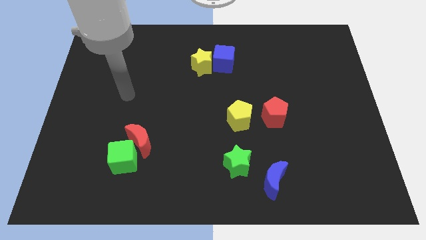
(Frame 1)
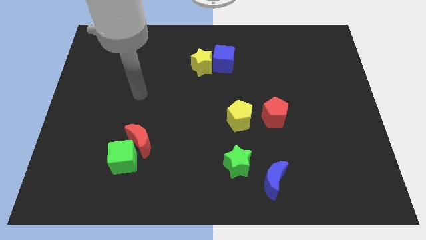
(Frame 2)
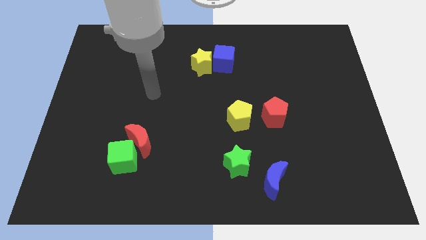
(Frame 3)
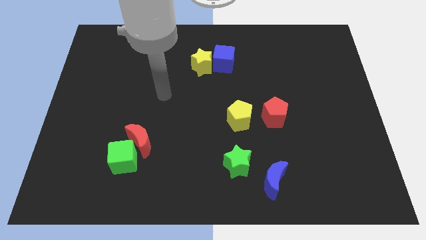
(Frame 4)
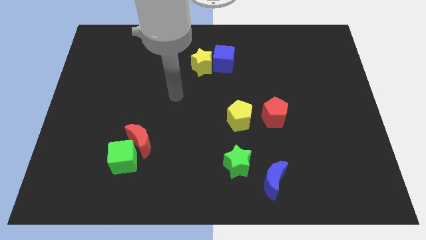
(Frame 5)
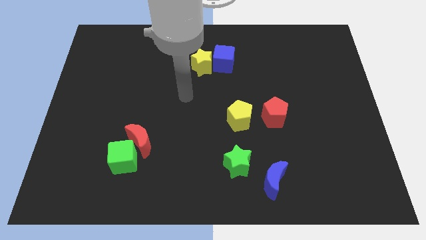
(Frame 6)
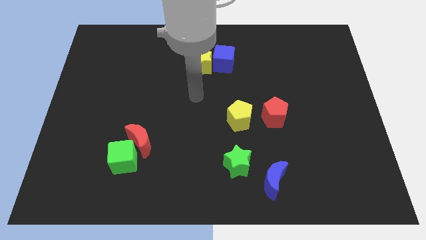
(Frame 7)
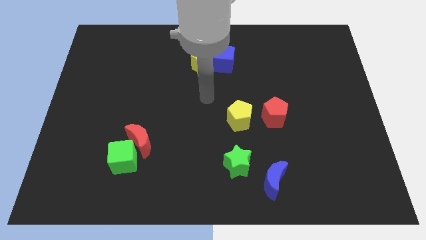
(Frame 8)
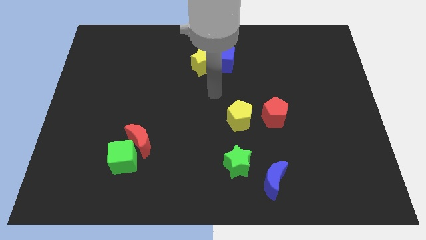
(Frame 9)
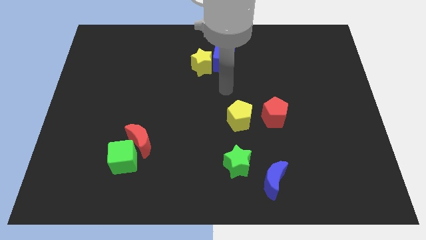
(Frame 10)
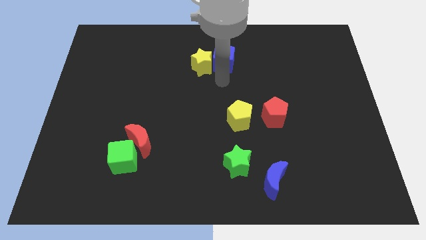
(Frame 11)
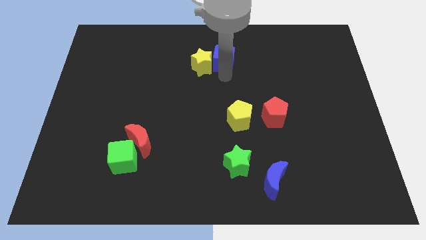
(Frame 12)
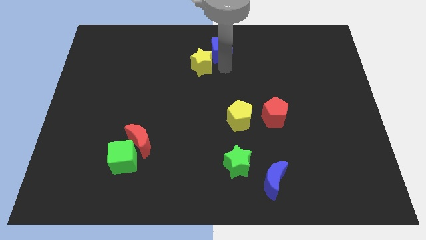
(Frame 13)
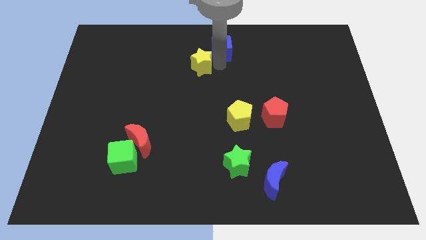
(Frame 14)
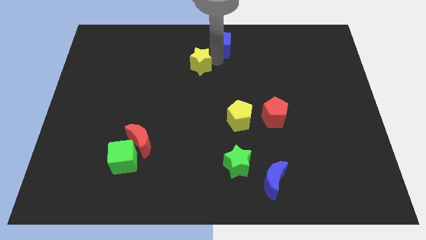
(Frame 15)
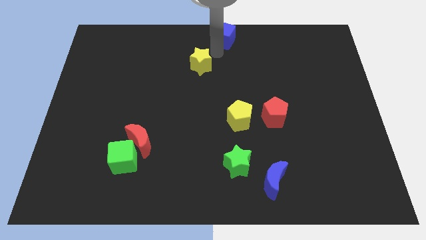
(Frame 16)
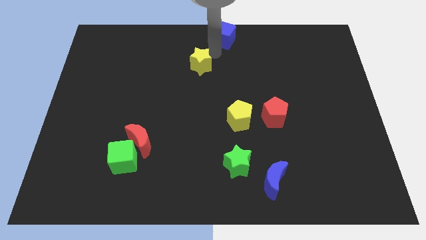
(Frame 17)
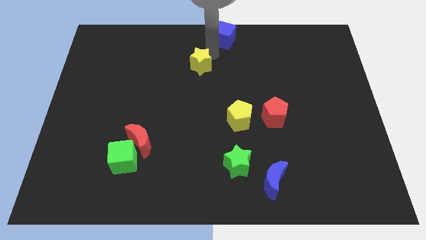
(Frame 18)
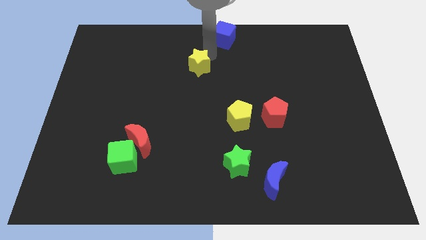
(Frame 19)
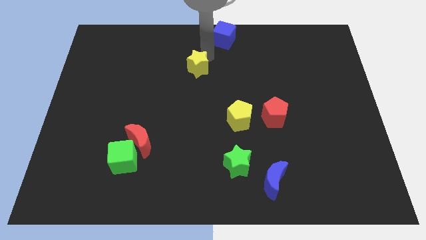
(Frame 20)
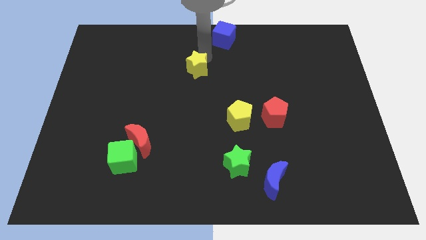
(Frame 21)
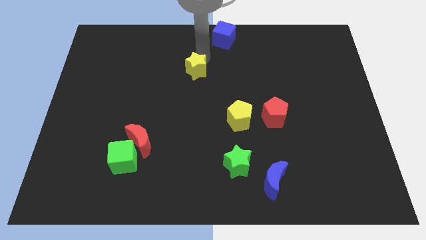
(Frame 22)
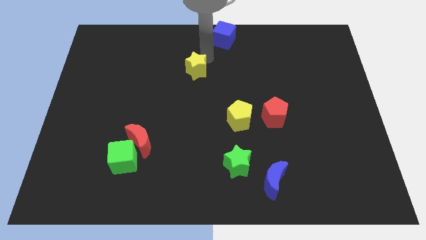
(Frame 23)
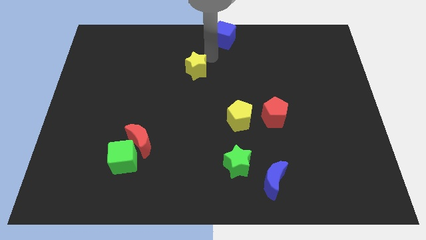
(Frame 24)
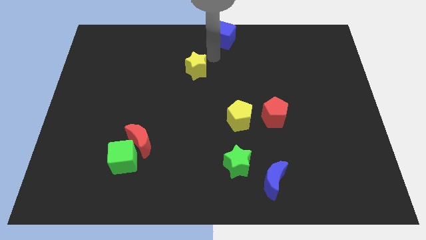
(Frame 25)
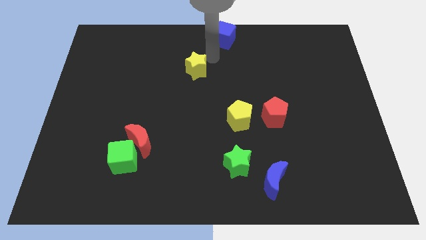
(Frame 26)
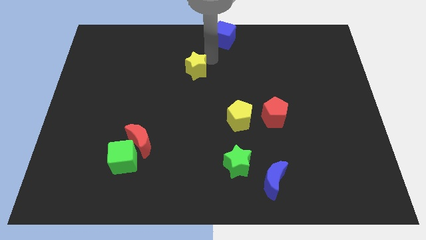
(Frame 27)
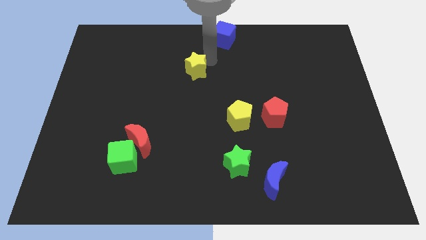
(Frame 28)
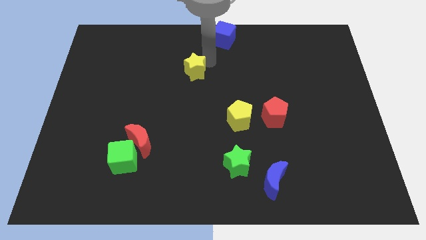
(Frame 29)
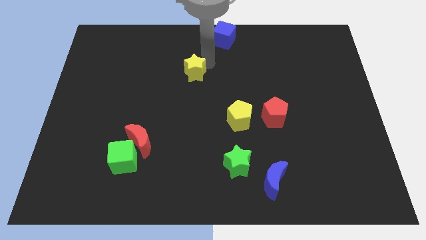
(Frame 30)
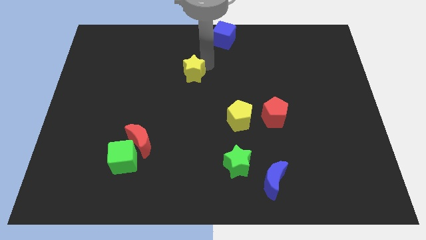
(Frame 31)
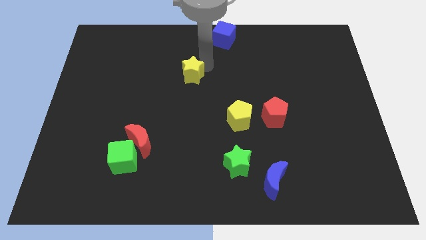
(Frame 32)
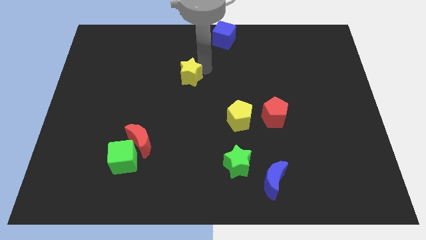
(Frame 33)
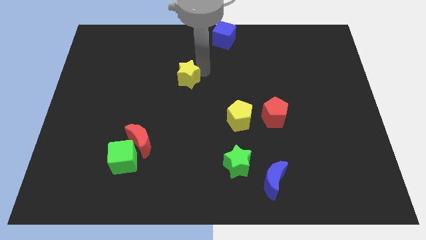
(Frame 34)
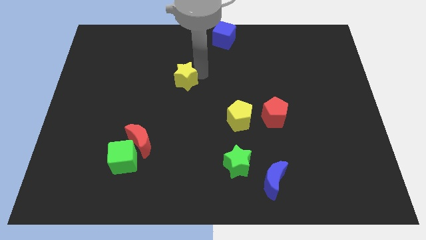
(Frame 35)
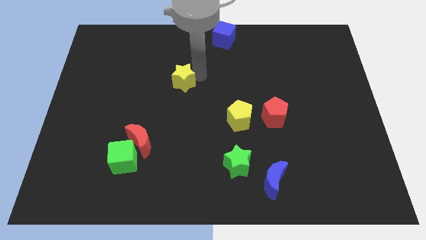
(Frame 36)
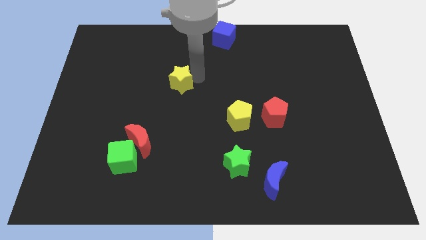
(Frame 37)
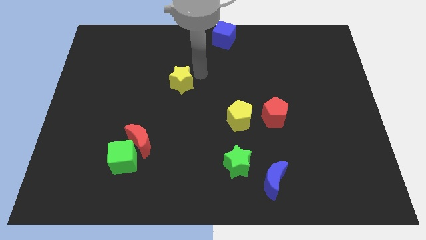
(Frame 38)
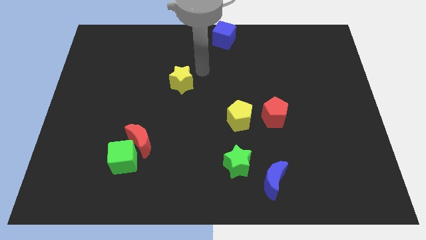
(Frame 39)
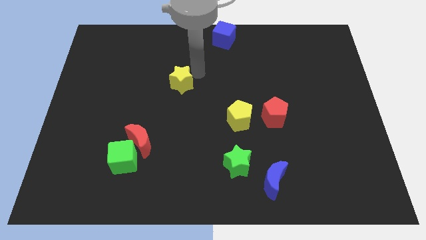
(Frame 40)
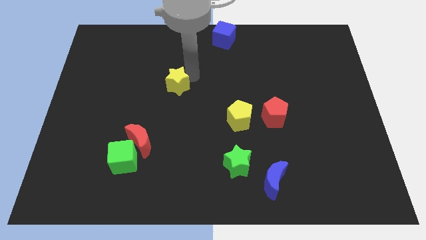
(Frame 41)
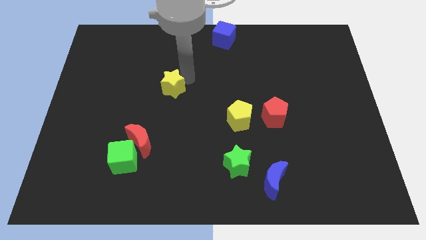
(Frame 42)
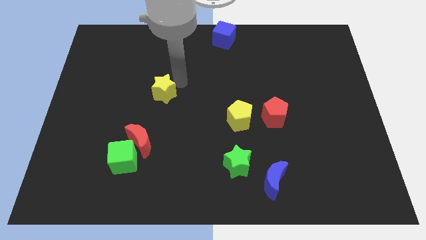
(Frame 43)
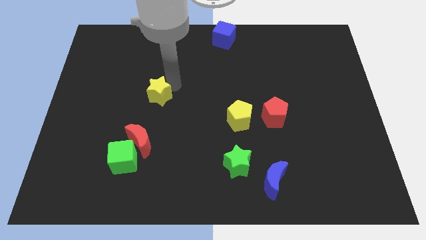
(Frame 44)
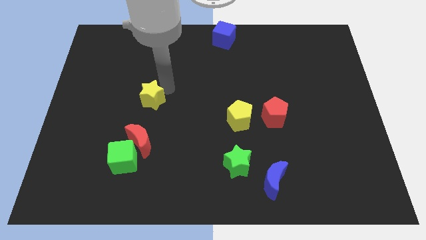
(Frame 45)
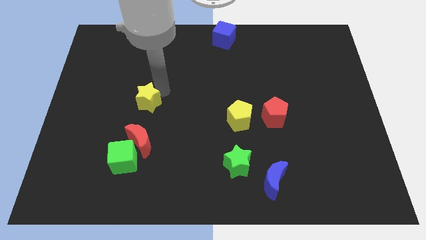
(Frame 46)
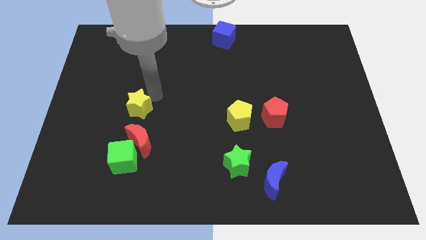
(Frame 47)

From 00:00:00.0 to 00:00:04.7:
push the yellow star diagonally downwards and left

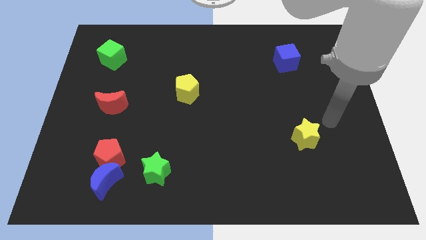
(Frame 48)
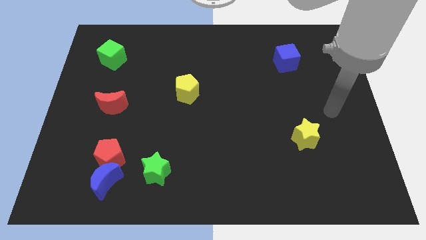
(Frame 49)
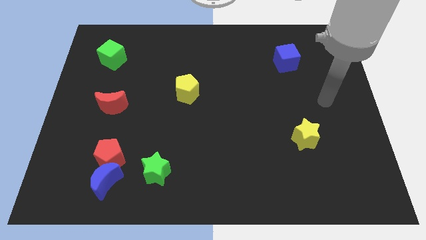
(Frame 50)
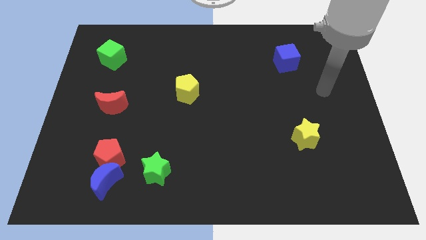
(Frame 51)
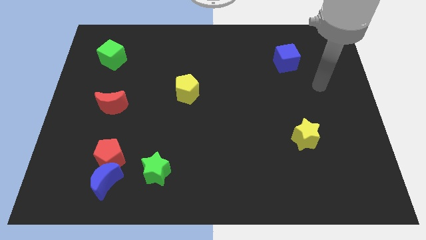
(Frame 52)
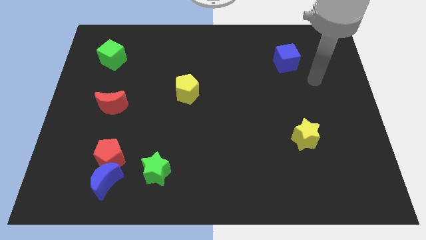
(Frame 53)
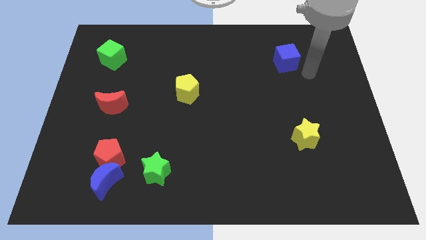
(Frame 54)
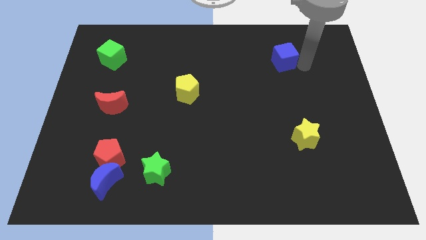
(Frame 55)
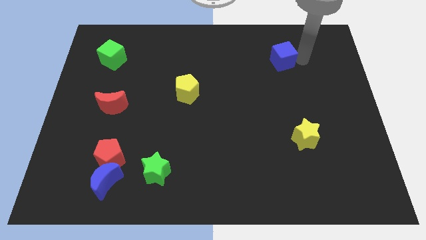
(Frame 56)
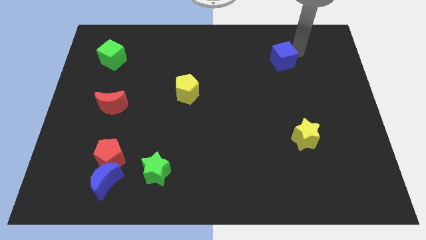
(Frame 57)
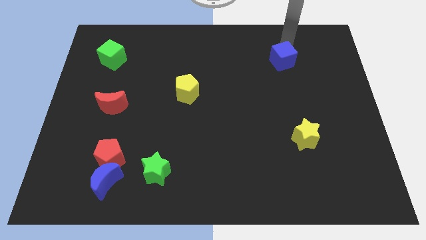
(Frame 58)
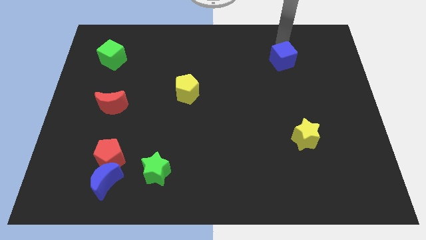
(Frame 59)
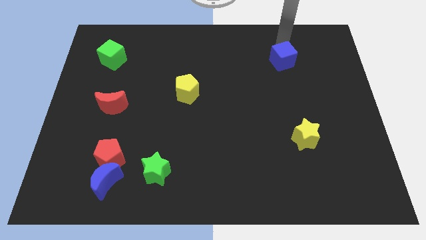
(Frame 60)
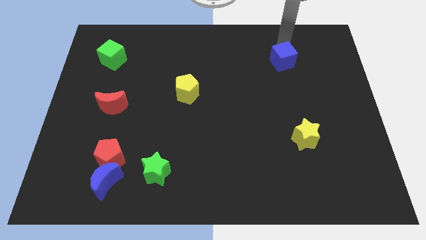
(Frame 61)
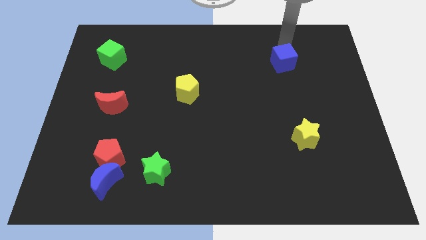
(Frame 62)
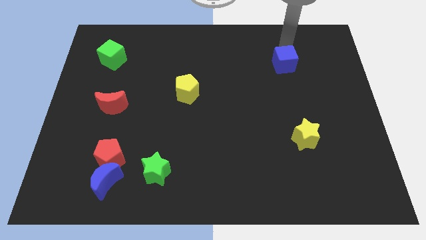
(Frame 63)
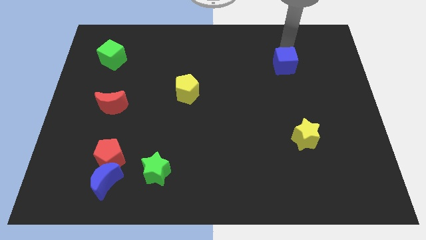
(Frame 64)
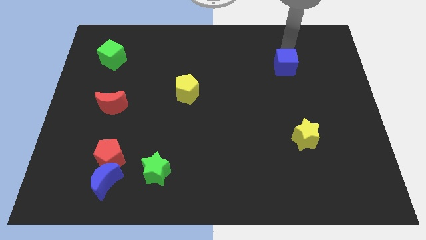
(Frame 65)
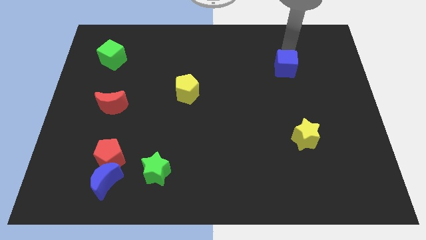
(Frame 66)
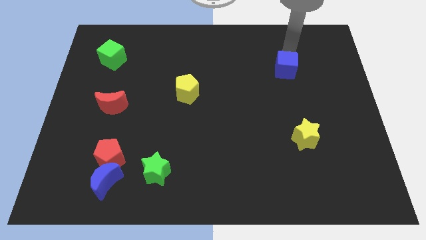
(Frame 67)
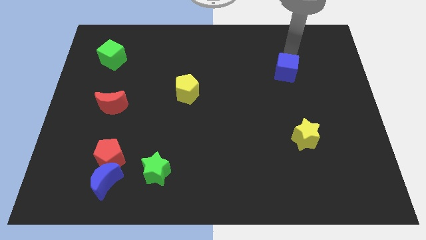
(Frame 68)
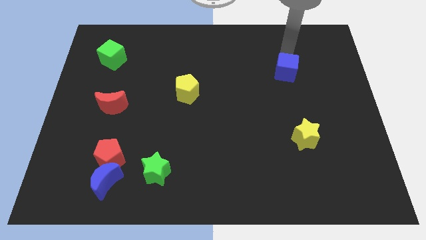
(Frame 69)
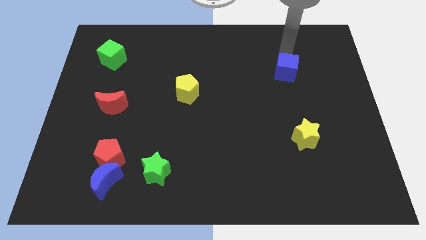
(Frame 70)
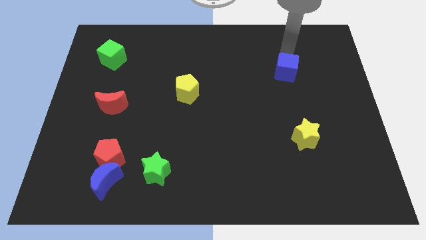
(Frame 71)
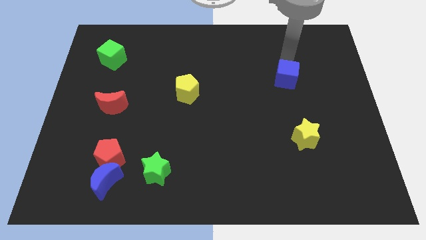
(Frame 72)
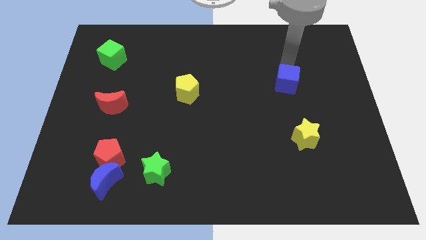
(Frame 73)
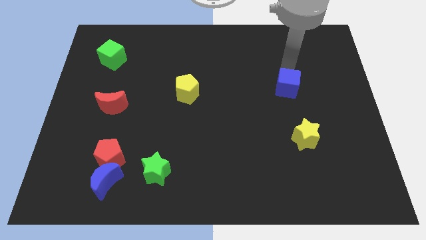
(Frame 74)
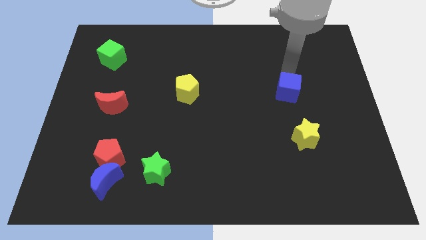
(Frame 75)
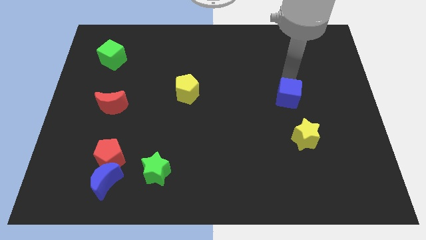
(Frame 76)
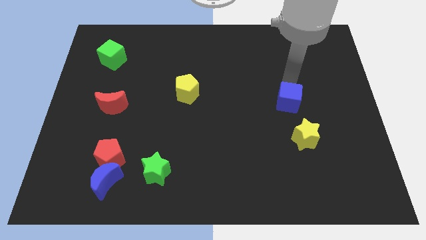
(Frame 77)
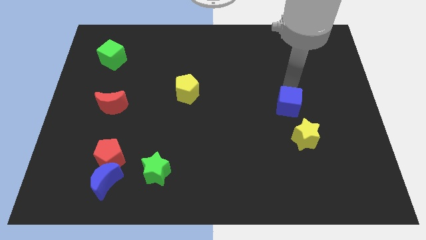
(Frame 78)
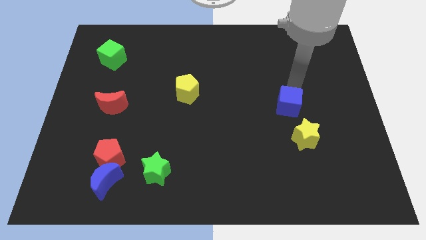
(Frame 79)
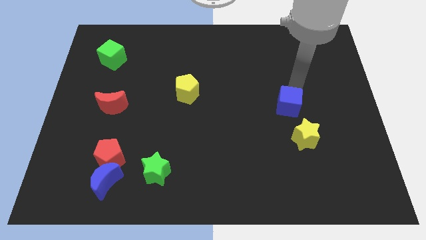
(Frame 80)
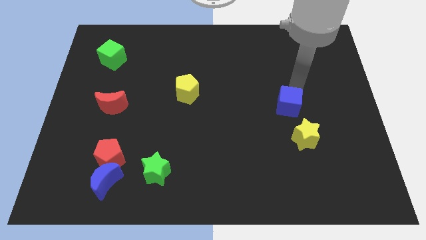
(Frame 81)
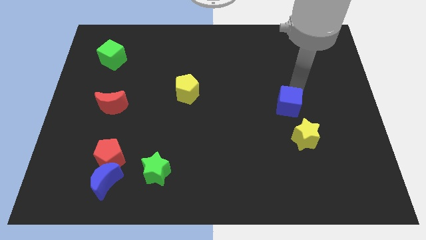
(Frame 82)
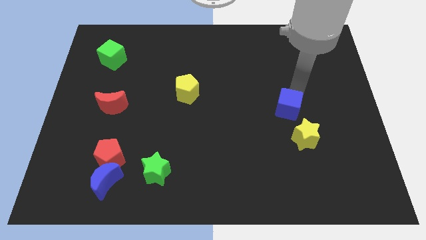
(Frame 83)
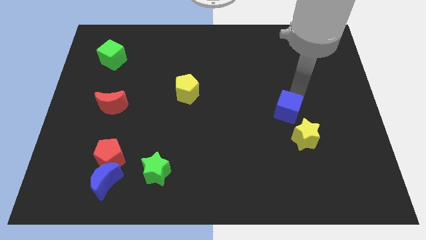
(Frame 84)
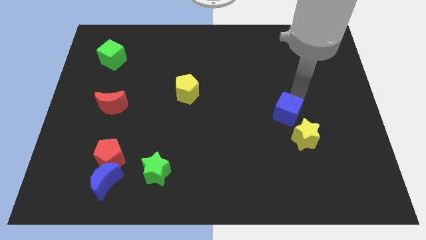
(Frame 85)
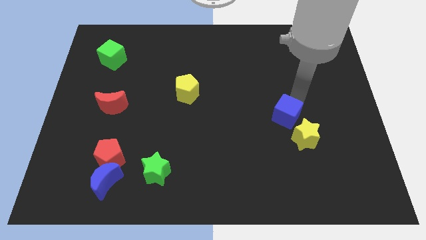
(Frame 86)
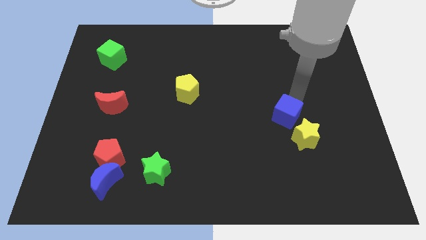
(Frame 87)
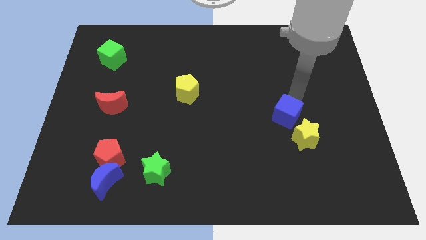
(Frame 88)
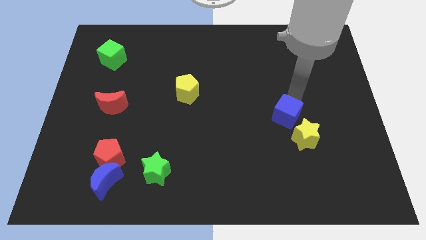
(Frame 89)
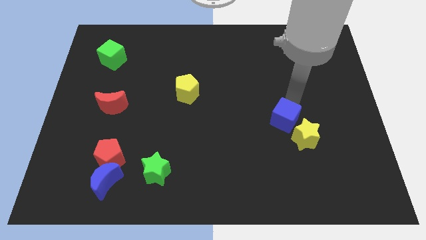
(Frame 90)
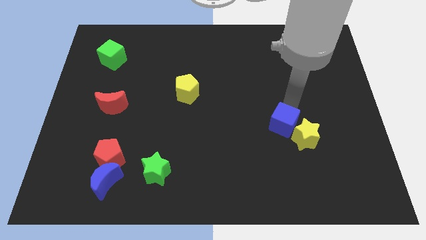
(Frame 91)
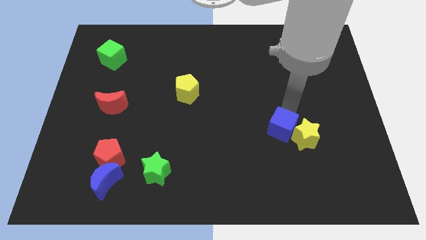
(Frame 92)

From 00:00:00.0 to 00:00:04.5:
push the blue cube down
